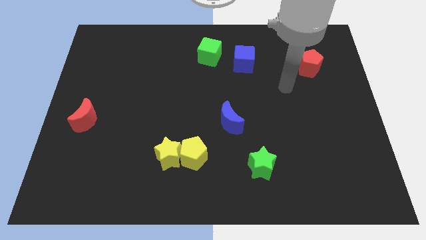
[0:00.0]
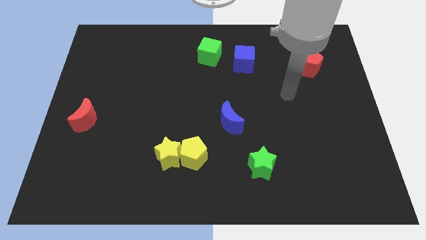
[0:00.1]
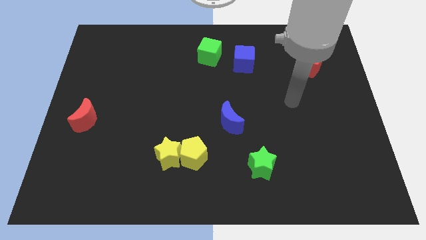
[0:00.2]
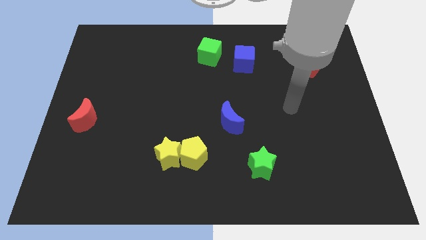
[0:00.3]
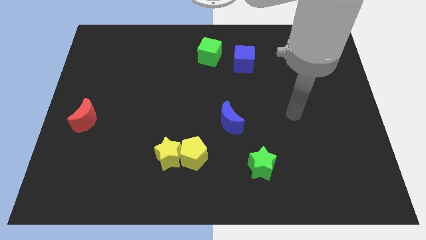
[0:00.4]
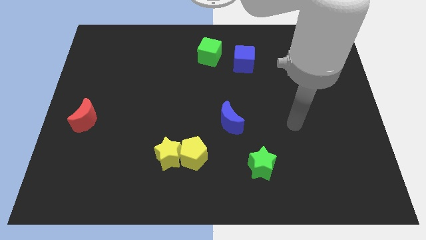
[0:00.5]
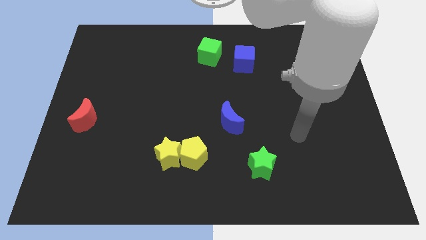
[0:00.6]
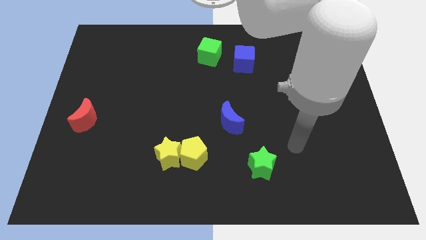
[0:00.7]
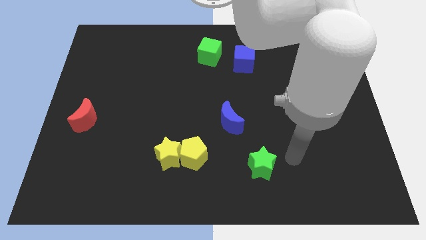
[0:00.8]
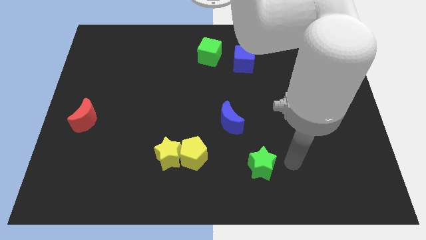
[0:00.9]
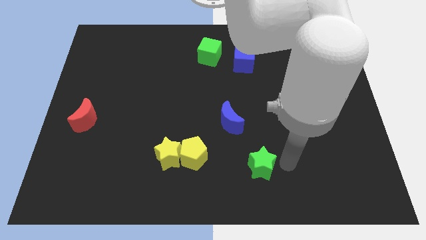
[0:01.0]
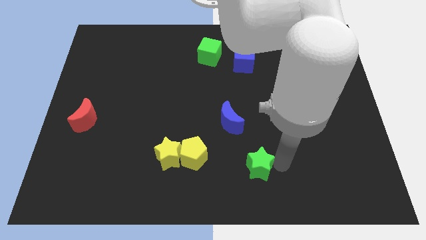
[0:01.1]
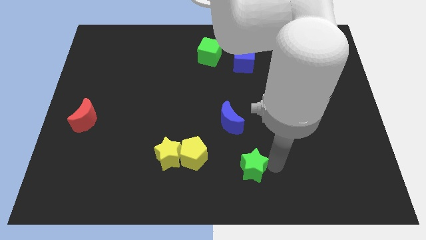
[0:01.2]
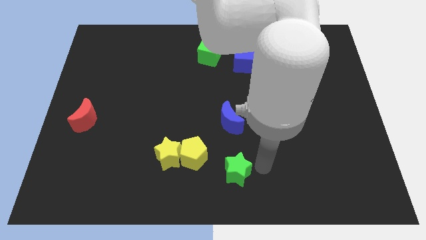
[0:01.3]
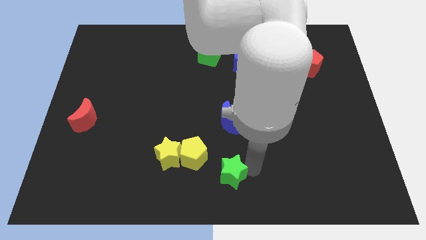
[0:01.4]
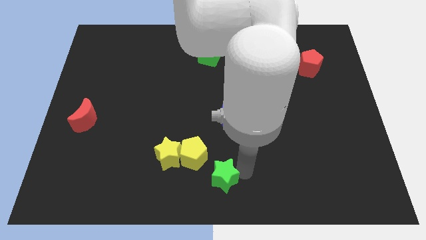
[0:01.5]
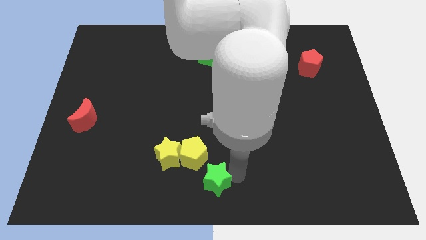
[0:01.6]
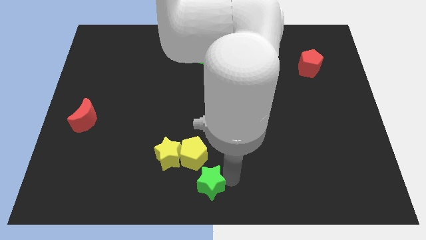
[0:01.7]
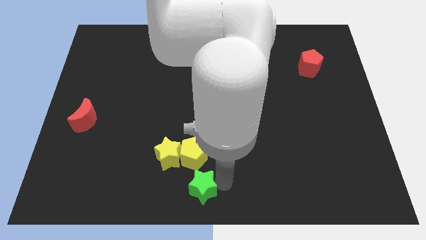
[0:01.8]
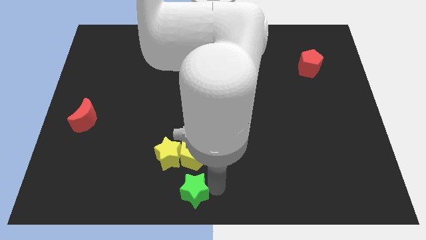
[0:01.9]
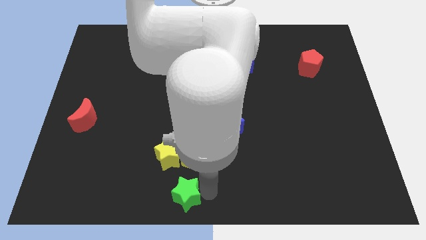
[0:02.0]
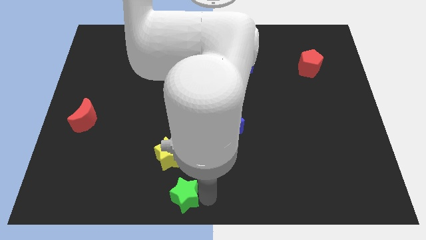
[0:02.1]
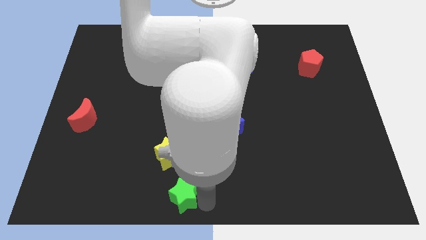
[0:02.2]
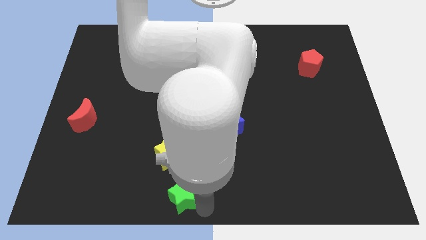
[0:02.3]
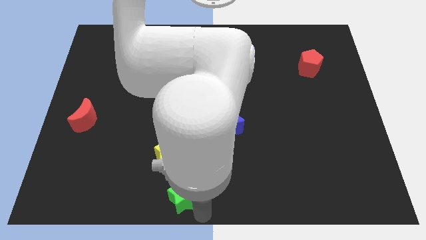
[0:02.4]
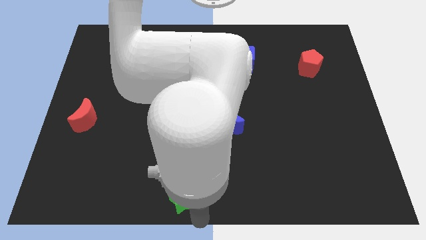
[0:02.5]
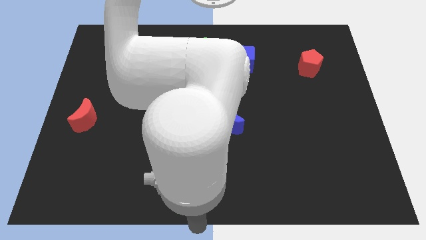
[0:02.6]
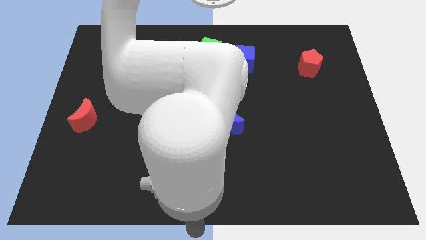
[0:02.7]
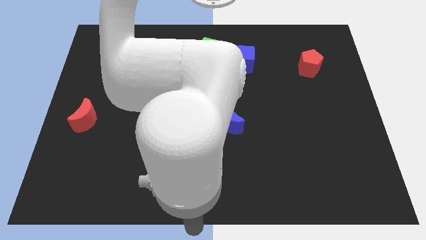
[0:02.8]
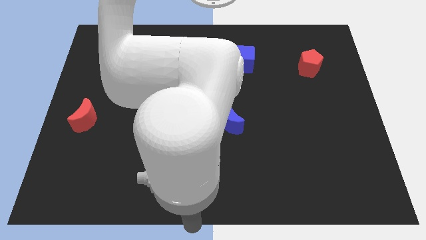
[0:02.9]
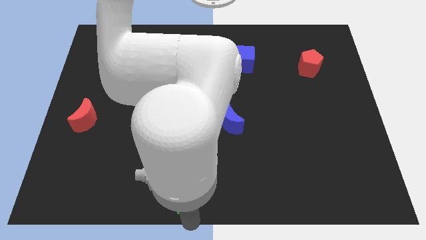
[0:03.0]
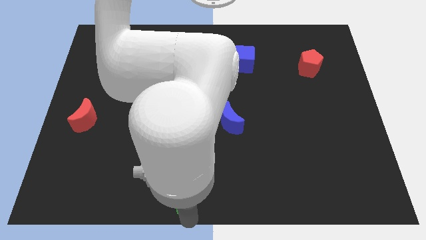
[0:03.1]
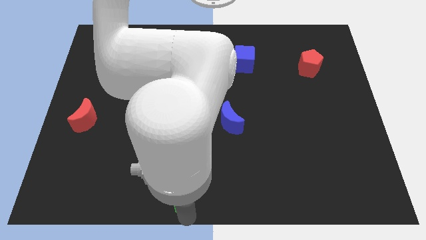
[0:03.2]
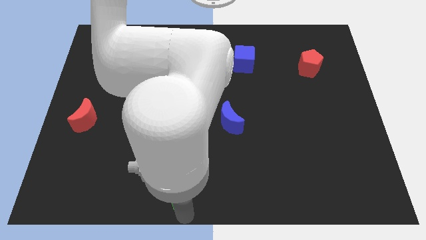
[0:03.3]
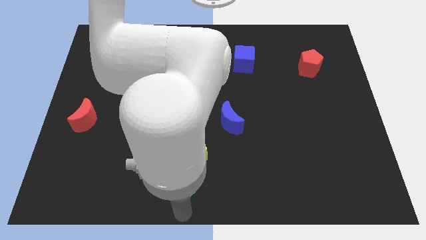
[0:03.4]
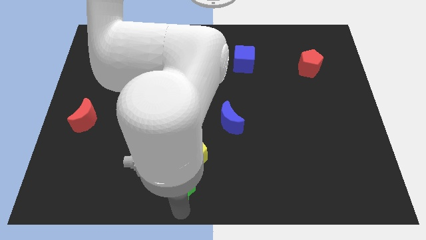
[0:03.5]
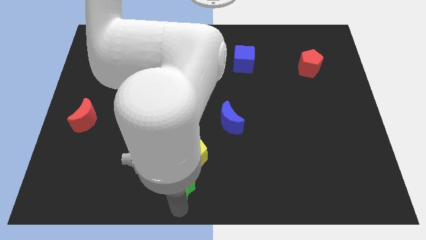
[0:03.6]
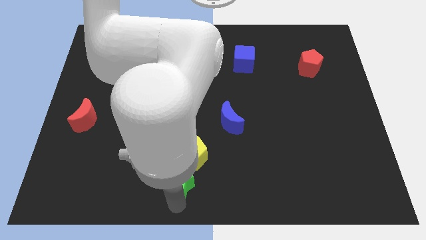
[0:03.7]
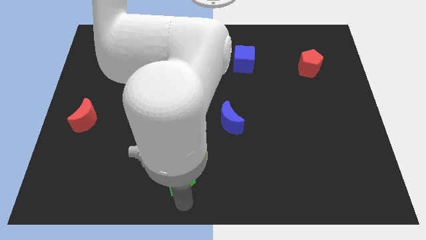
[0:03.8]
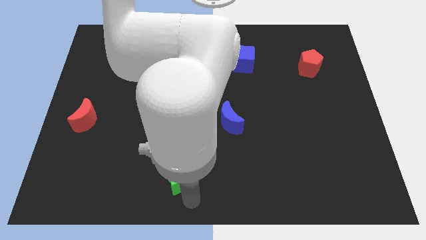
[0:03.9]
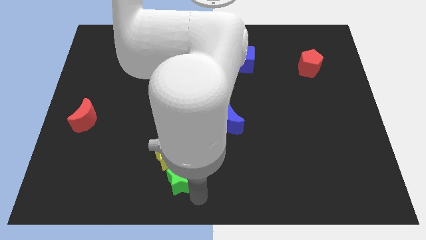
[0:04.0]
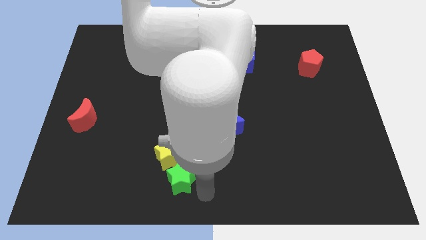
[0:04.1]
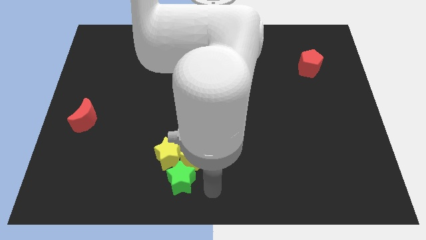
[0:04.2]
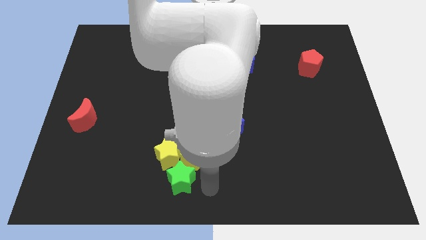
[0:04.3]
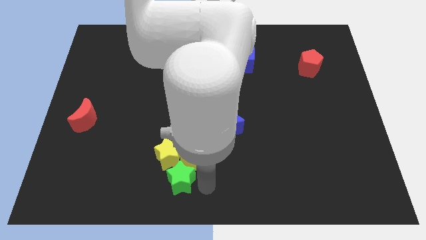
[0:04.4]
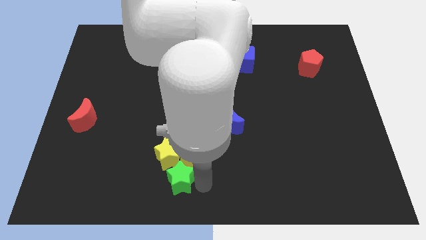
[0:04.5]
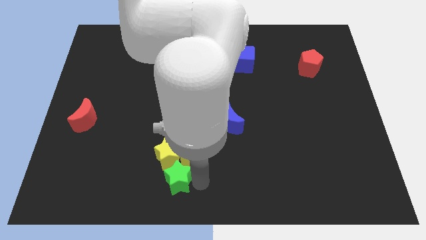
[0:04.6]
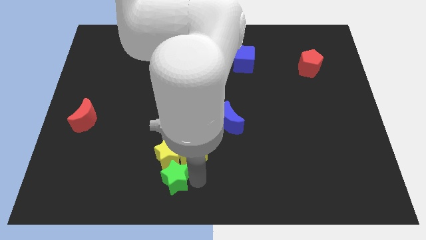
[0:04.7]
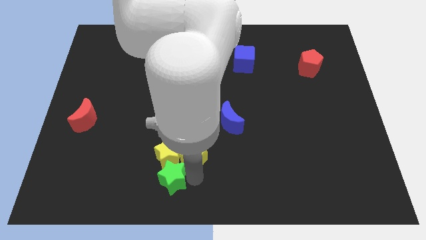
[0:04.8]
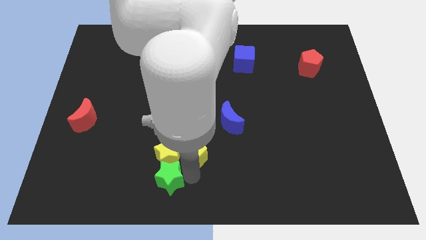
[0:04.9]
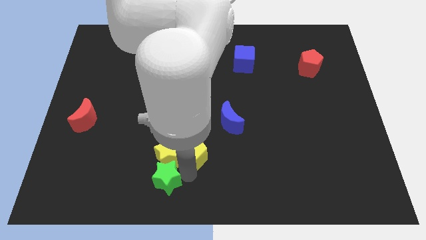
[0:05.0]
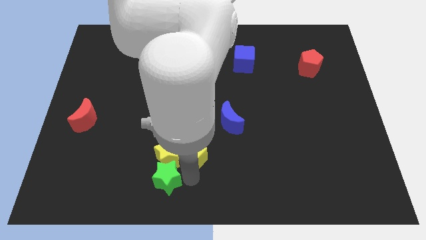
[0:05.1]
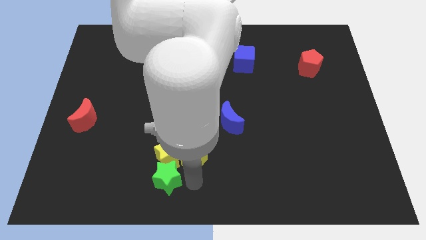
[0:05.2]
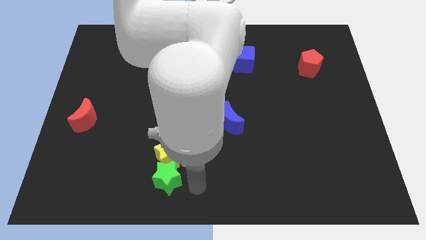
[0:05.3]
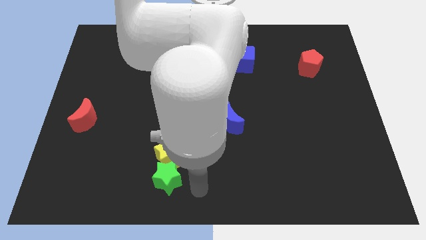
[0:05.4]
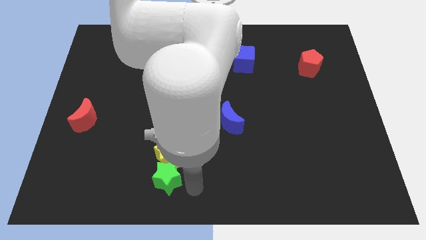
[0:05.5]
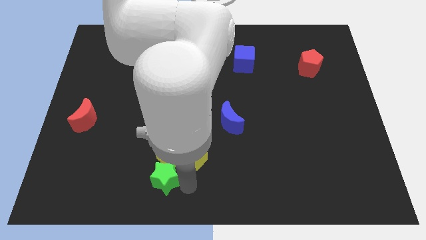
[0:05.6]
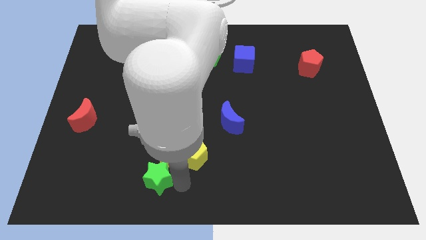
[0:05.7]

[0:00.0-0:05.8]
move the green star to the left

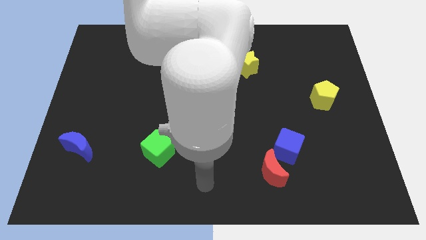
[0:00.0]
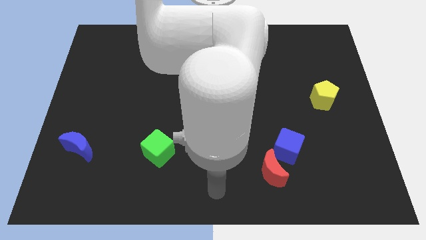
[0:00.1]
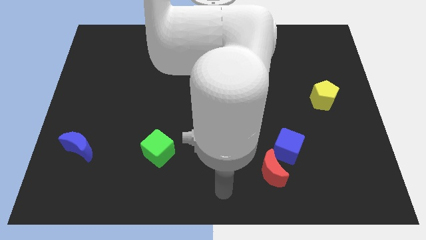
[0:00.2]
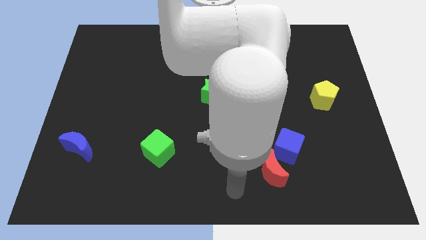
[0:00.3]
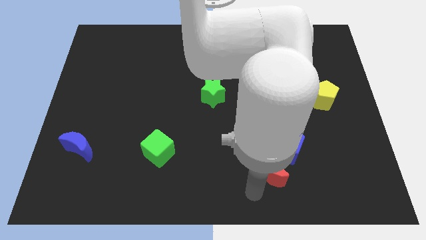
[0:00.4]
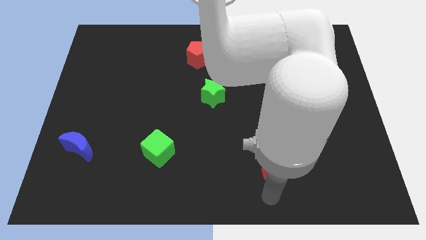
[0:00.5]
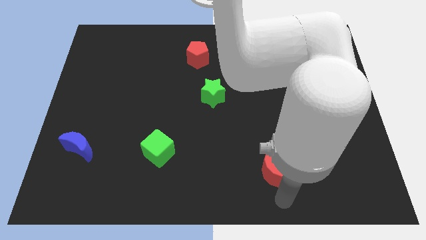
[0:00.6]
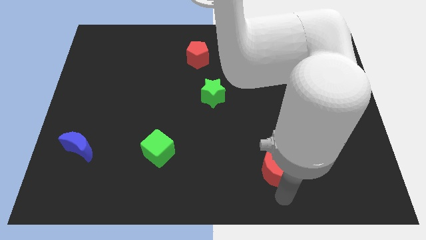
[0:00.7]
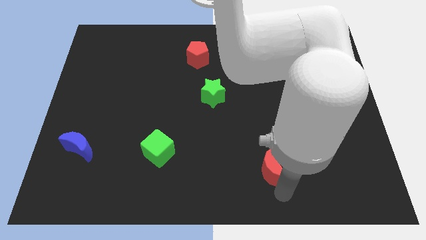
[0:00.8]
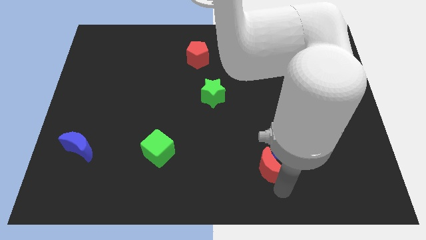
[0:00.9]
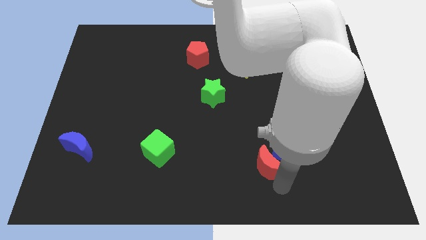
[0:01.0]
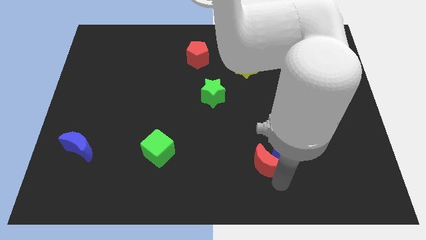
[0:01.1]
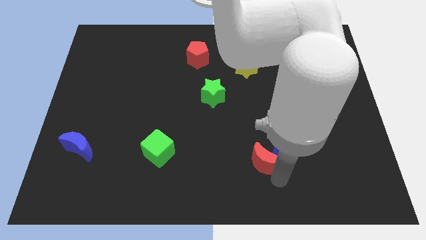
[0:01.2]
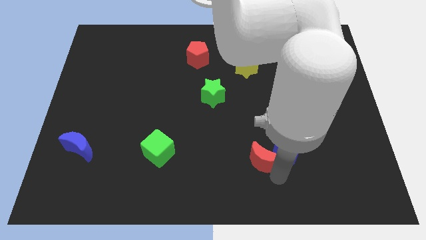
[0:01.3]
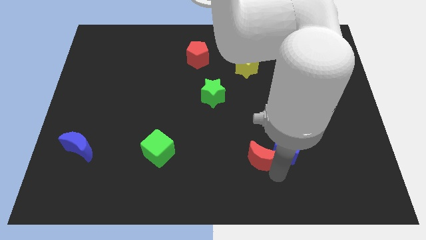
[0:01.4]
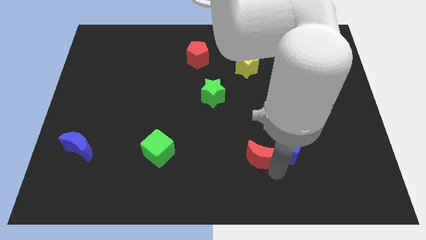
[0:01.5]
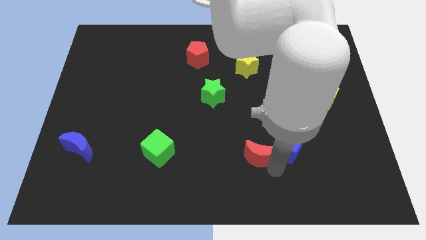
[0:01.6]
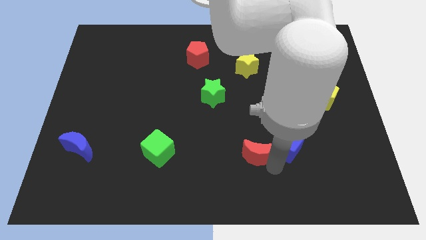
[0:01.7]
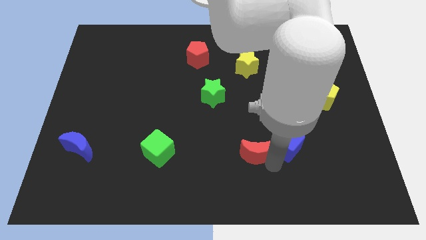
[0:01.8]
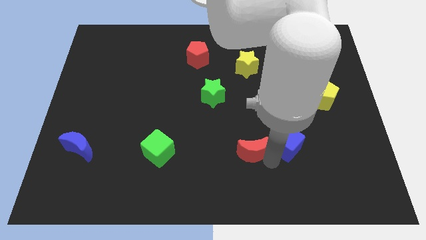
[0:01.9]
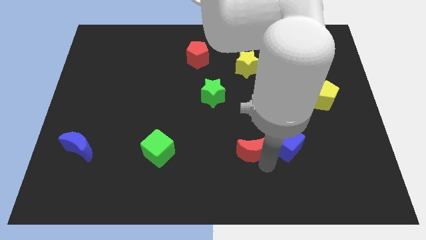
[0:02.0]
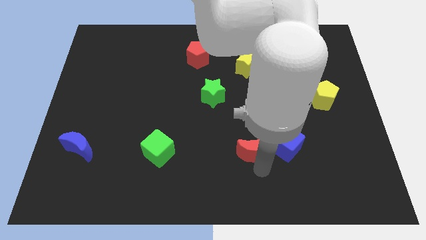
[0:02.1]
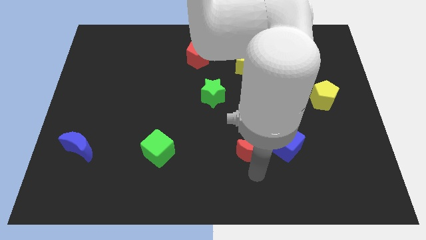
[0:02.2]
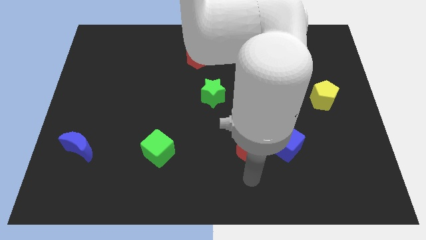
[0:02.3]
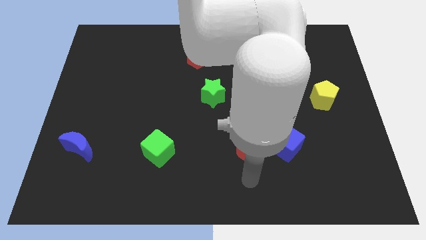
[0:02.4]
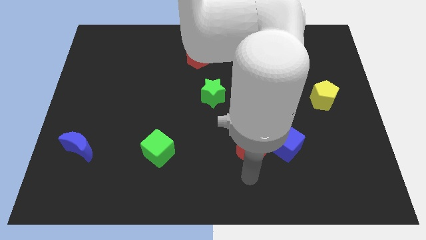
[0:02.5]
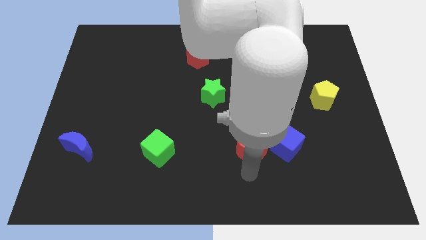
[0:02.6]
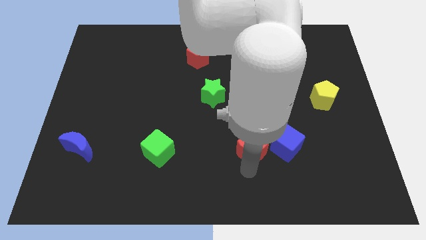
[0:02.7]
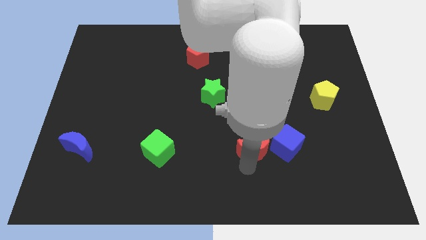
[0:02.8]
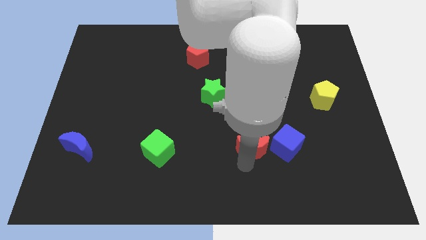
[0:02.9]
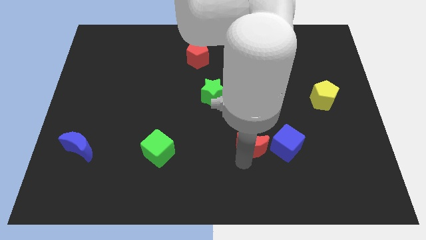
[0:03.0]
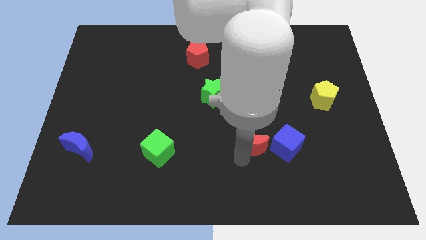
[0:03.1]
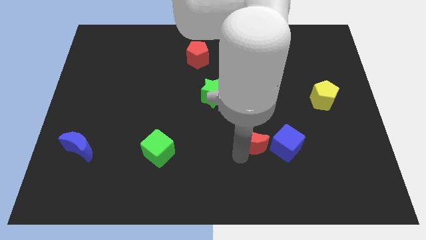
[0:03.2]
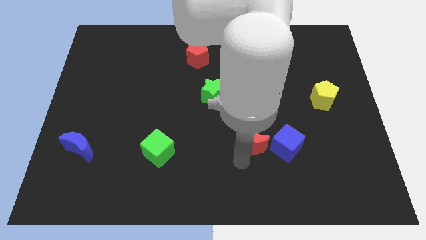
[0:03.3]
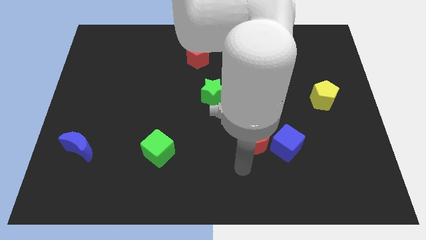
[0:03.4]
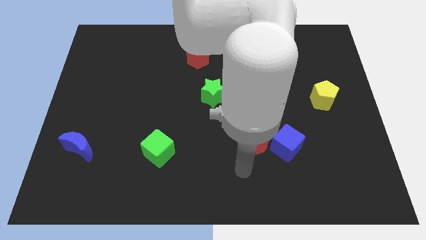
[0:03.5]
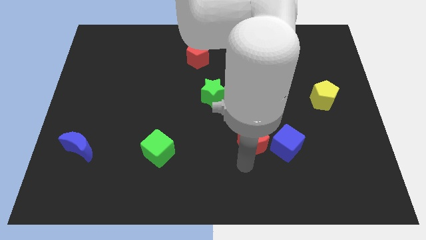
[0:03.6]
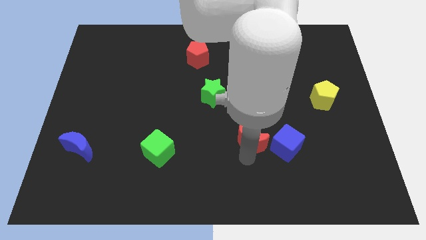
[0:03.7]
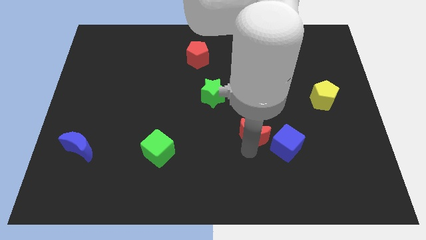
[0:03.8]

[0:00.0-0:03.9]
move the red moon upwards somewhat
